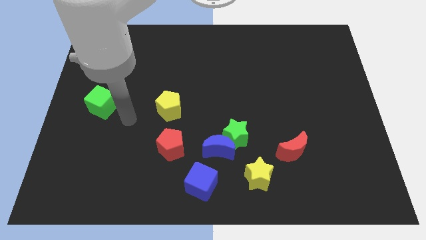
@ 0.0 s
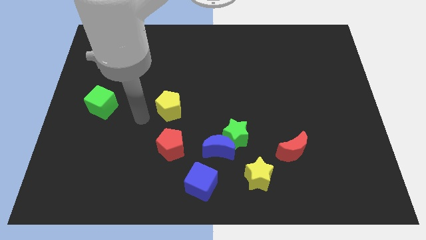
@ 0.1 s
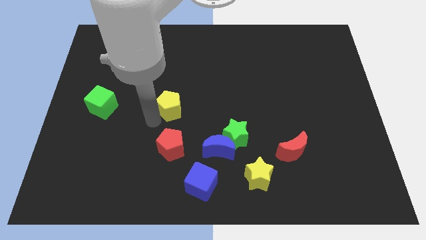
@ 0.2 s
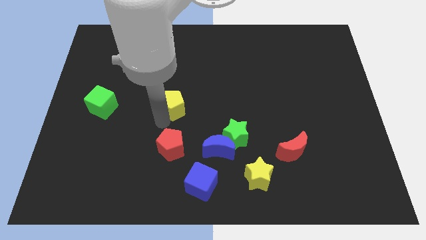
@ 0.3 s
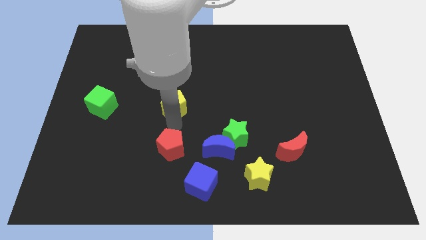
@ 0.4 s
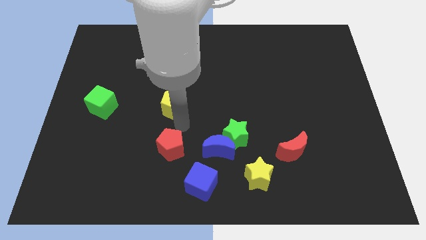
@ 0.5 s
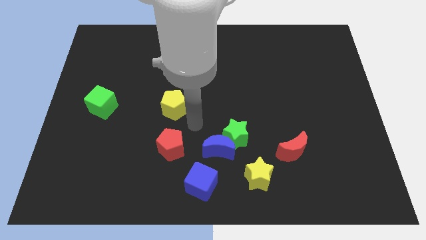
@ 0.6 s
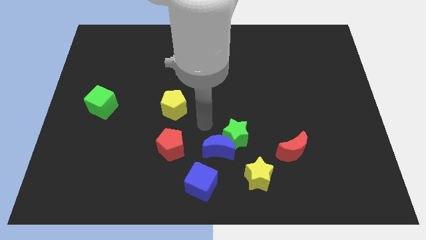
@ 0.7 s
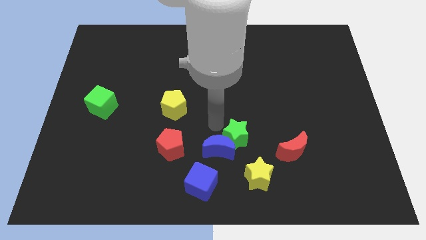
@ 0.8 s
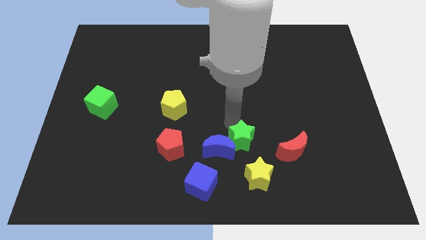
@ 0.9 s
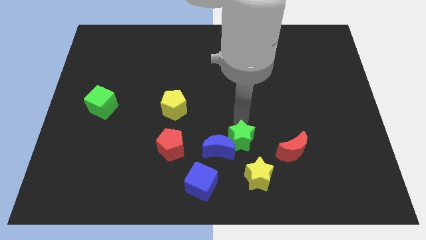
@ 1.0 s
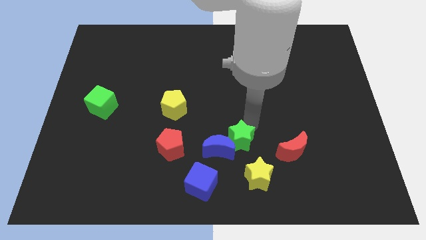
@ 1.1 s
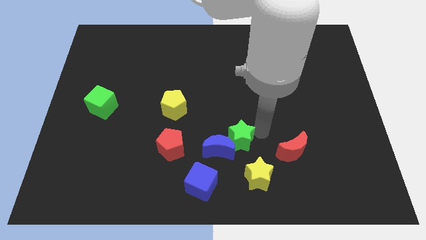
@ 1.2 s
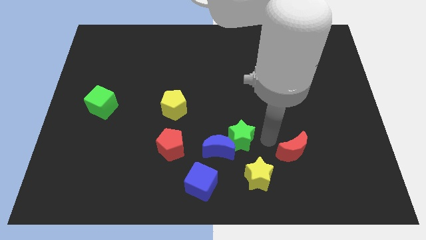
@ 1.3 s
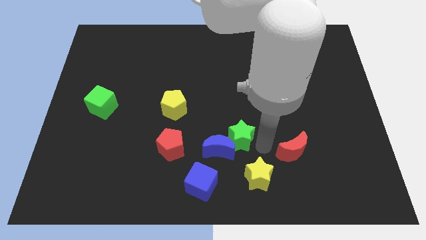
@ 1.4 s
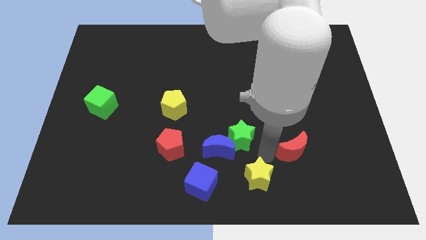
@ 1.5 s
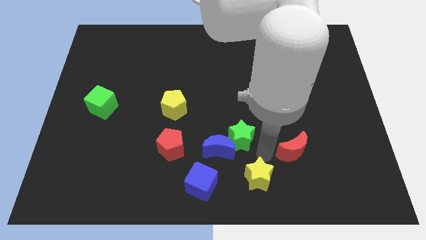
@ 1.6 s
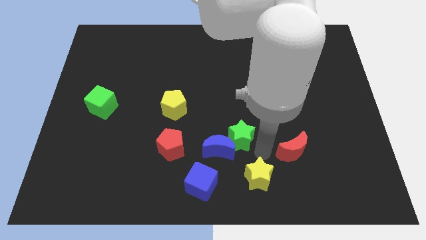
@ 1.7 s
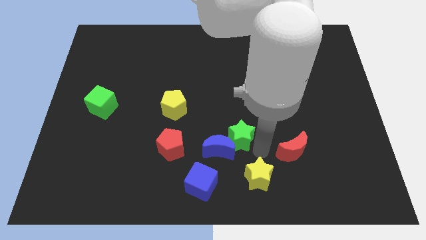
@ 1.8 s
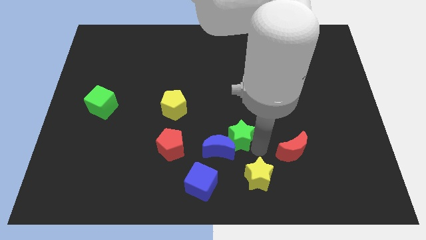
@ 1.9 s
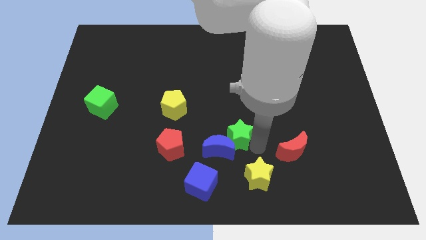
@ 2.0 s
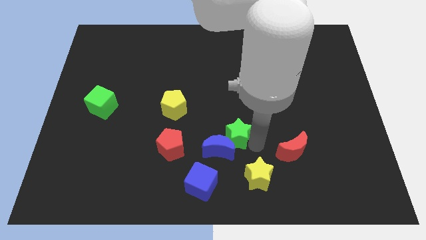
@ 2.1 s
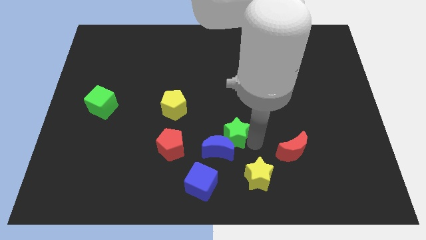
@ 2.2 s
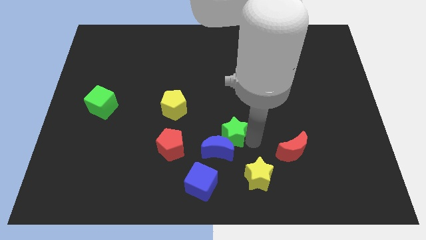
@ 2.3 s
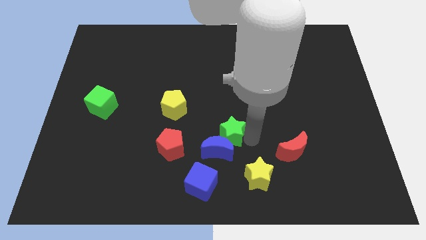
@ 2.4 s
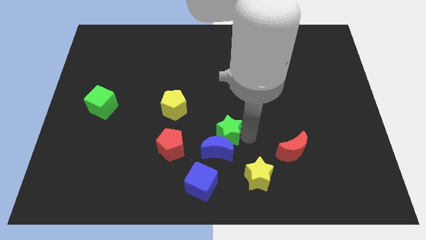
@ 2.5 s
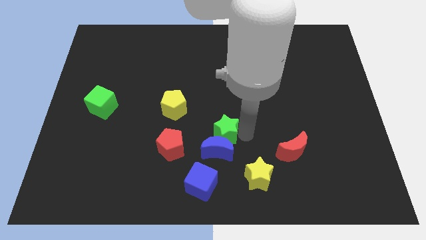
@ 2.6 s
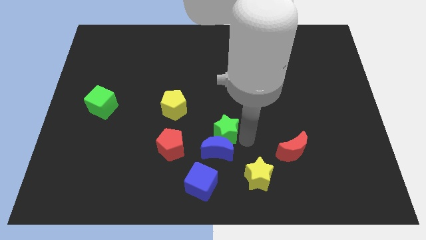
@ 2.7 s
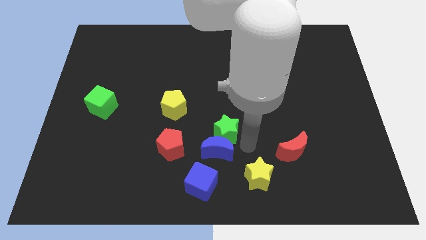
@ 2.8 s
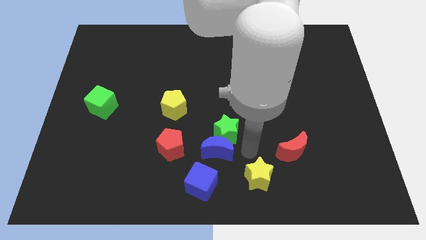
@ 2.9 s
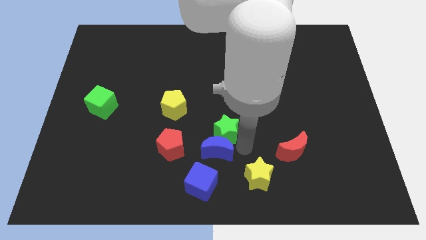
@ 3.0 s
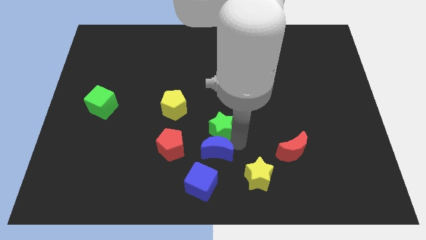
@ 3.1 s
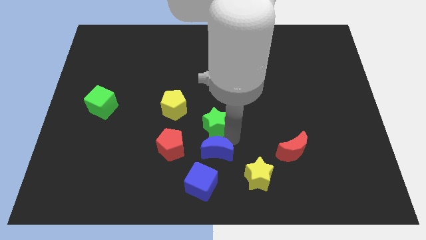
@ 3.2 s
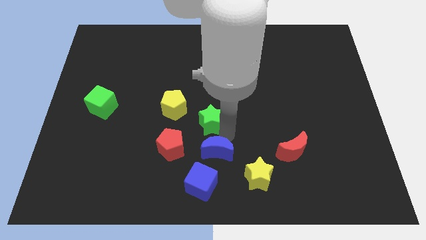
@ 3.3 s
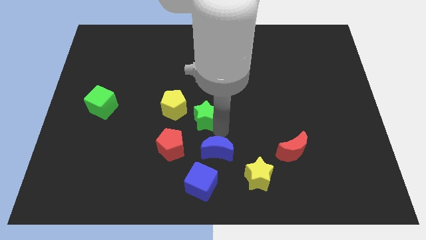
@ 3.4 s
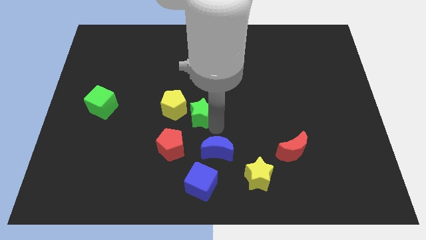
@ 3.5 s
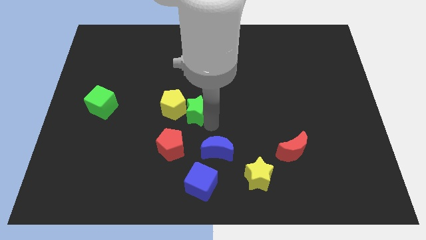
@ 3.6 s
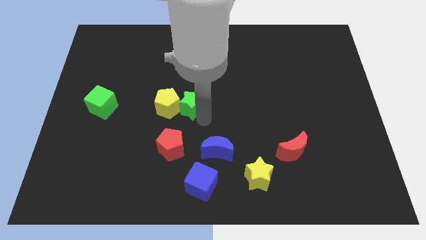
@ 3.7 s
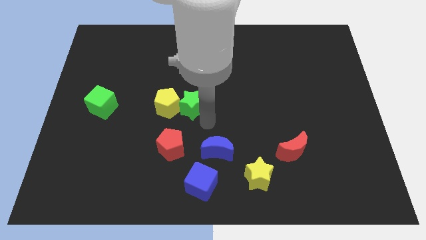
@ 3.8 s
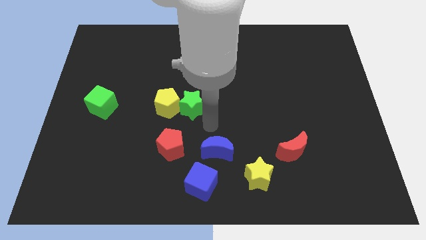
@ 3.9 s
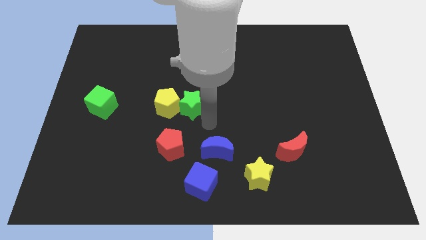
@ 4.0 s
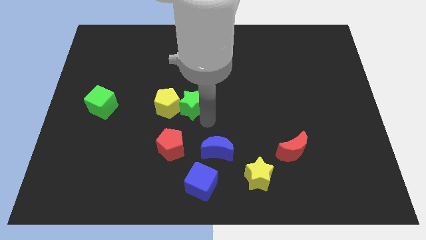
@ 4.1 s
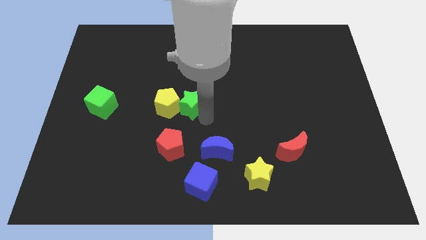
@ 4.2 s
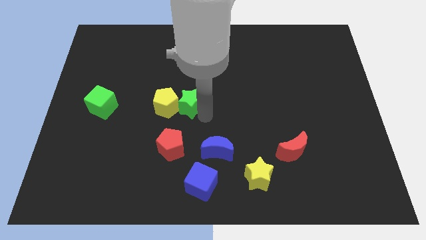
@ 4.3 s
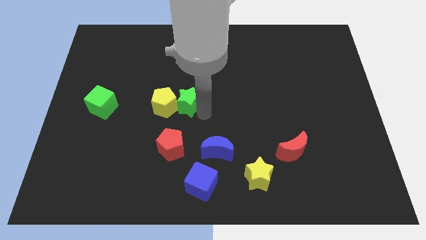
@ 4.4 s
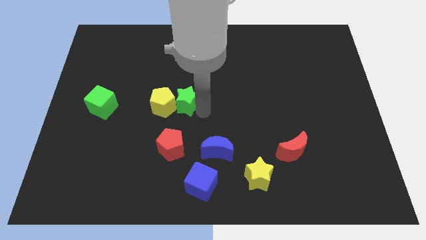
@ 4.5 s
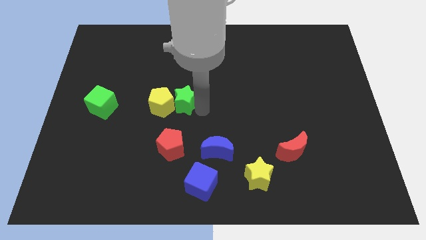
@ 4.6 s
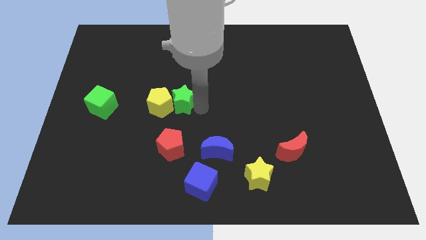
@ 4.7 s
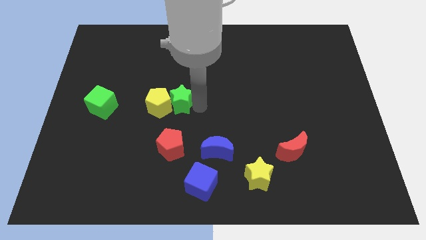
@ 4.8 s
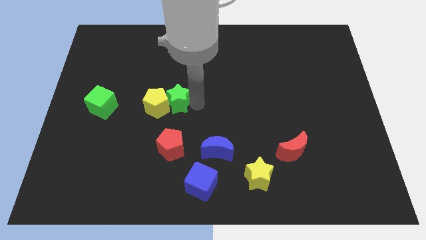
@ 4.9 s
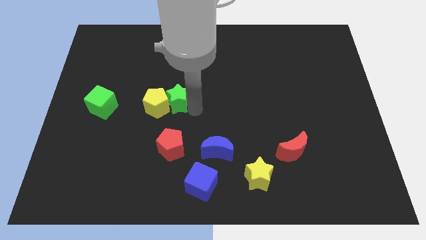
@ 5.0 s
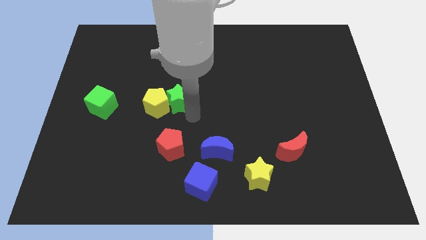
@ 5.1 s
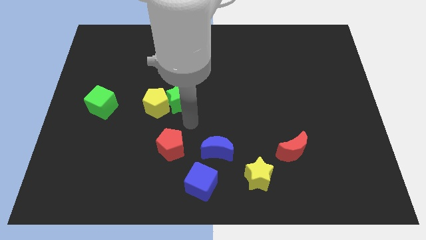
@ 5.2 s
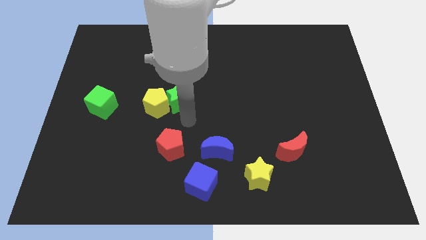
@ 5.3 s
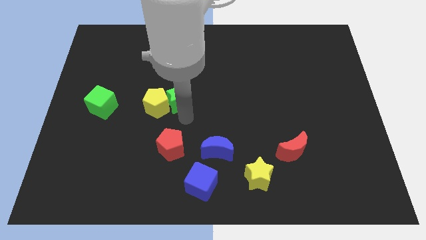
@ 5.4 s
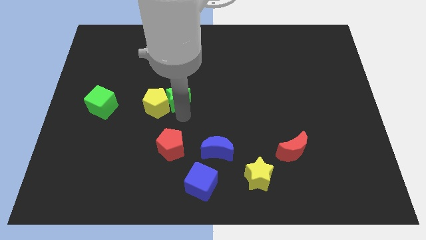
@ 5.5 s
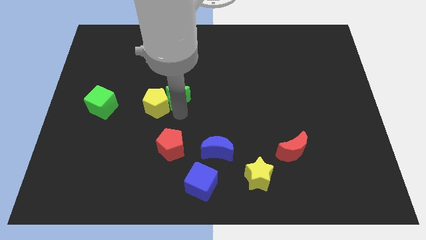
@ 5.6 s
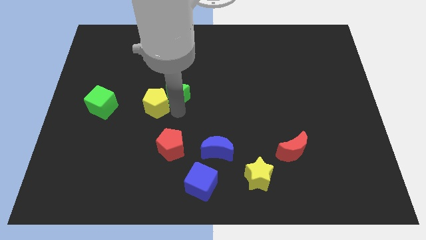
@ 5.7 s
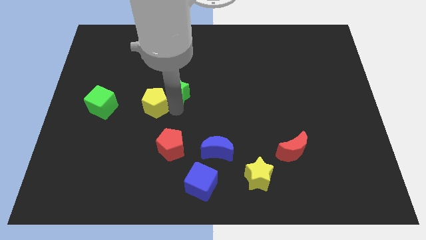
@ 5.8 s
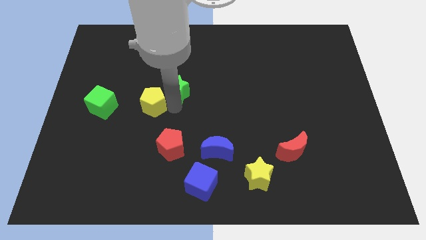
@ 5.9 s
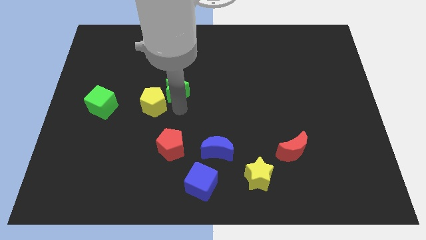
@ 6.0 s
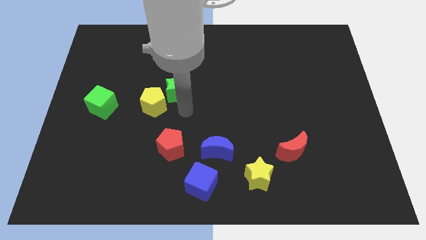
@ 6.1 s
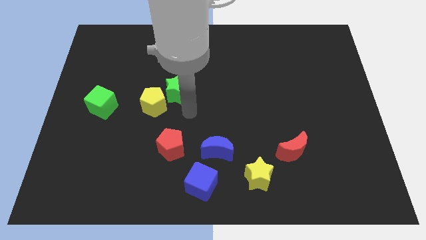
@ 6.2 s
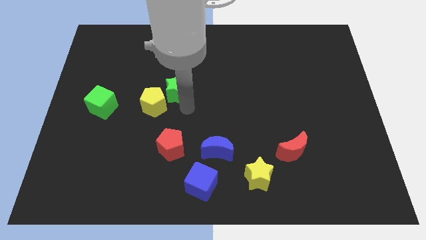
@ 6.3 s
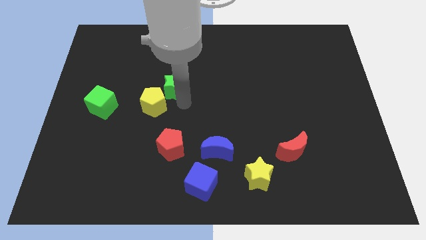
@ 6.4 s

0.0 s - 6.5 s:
slide the green star up and to the left
